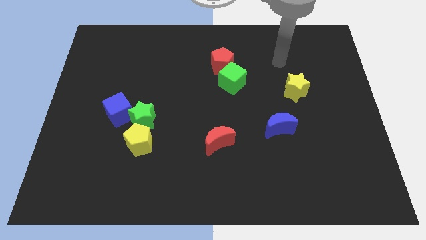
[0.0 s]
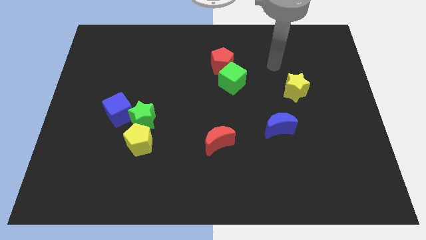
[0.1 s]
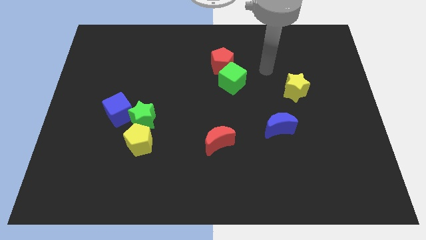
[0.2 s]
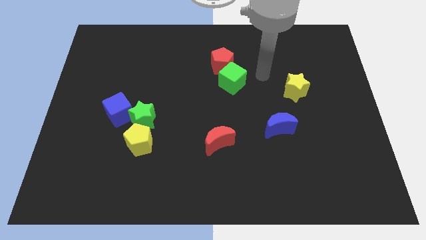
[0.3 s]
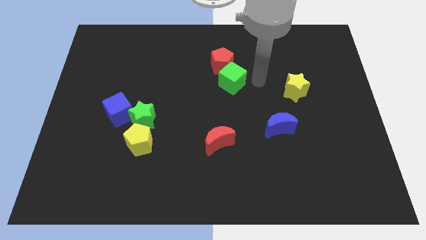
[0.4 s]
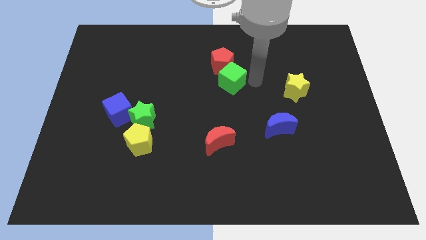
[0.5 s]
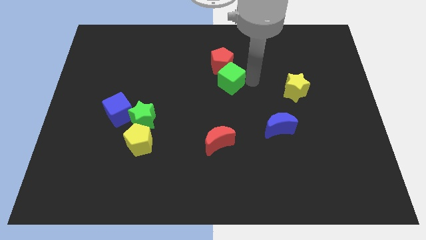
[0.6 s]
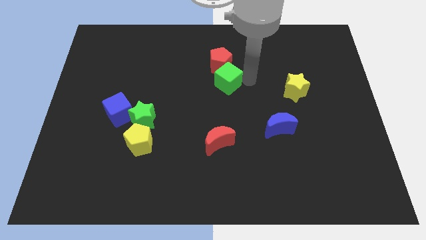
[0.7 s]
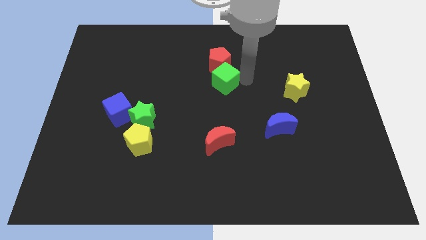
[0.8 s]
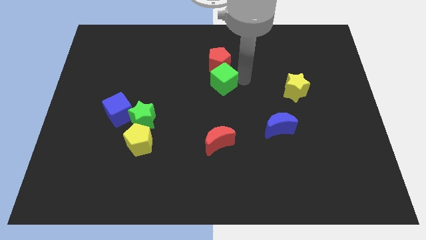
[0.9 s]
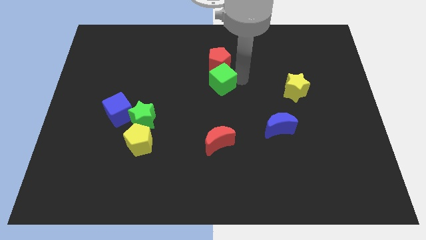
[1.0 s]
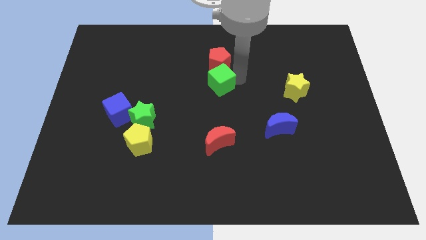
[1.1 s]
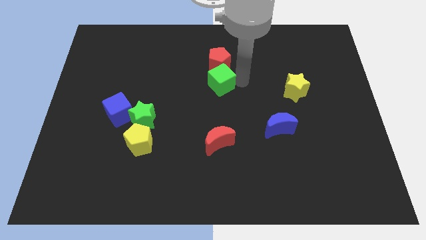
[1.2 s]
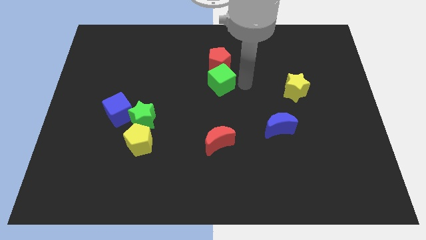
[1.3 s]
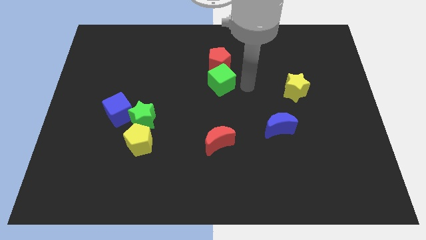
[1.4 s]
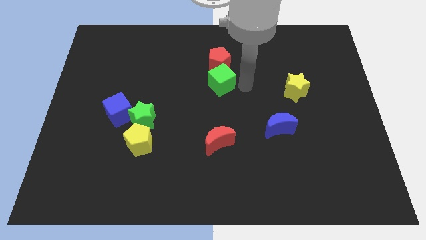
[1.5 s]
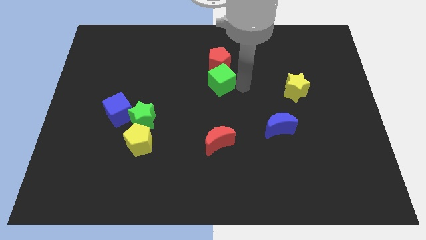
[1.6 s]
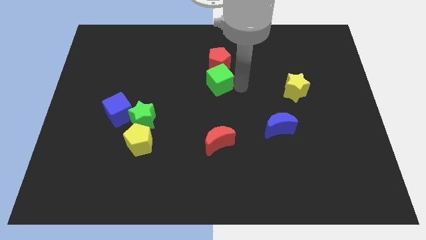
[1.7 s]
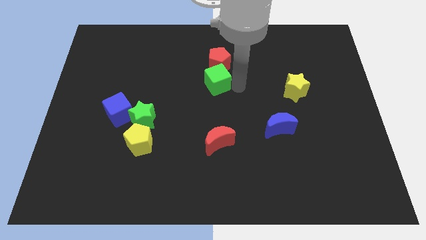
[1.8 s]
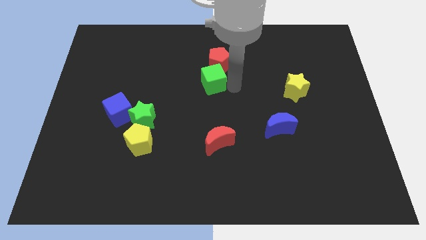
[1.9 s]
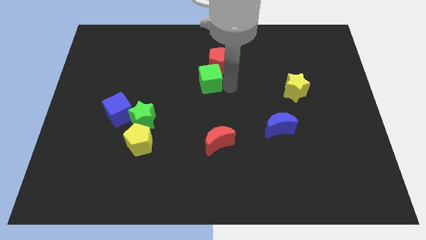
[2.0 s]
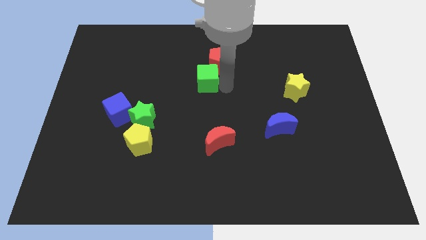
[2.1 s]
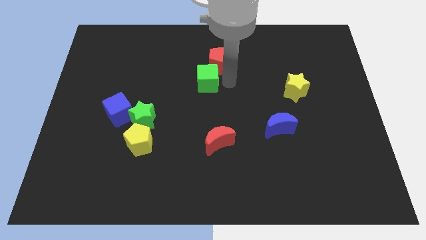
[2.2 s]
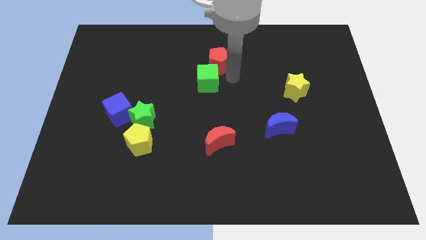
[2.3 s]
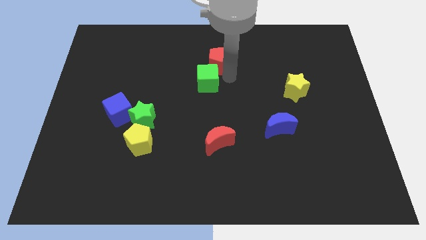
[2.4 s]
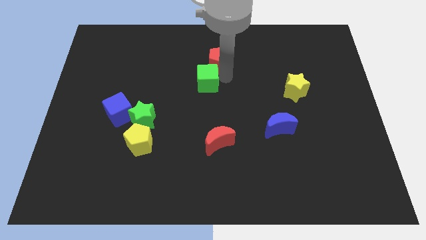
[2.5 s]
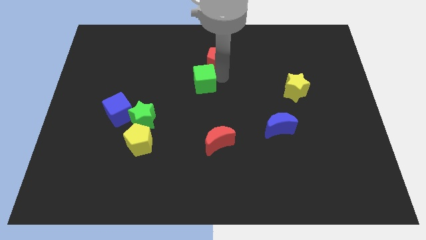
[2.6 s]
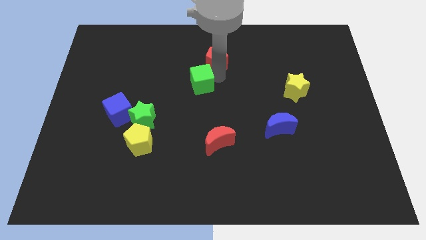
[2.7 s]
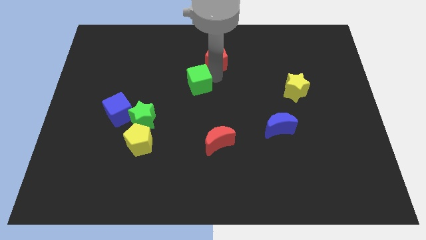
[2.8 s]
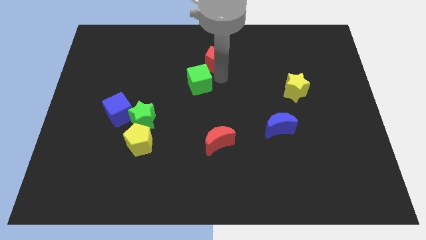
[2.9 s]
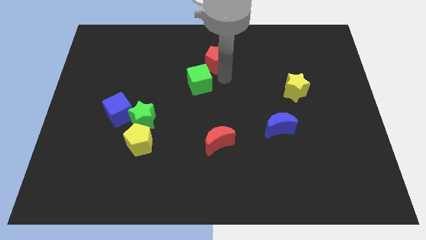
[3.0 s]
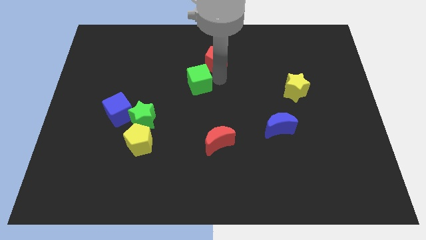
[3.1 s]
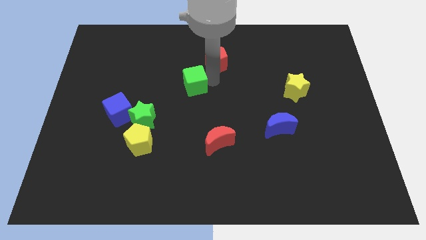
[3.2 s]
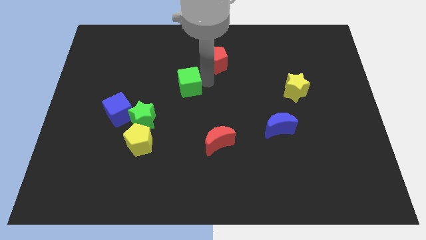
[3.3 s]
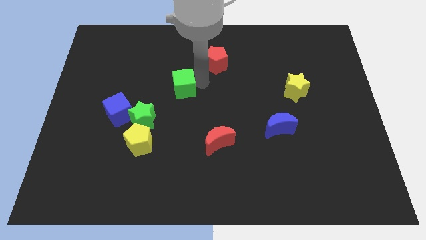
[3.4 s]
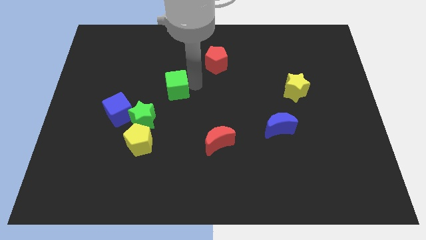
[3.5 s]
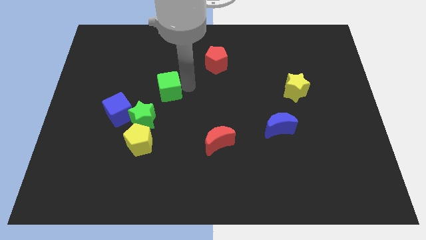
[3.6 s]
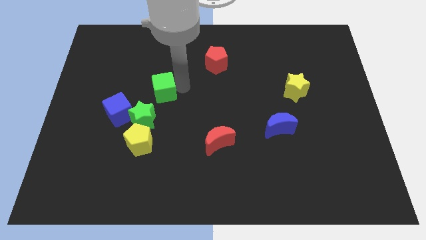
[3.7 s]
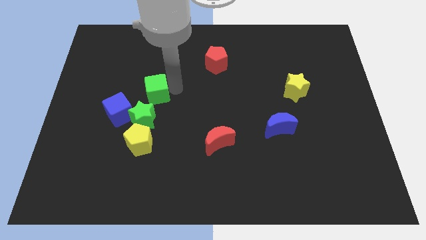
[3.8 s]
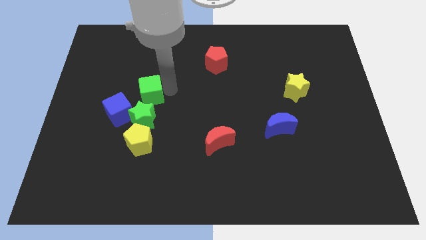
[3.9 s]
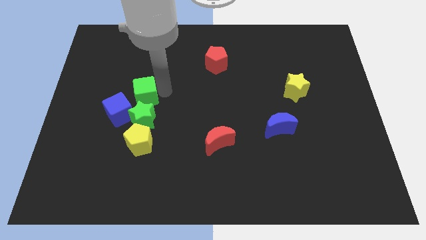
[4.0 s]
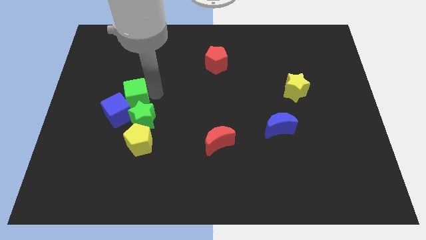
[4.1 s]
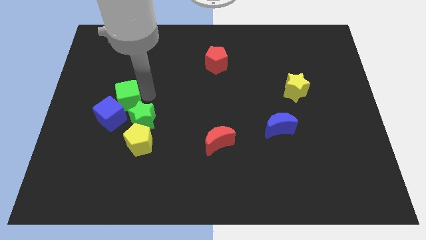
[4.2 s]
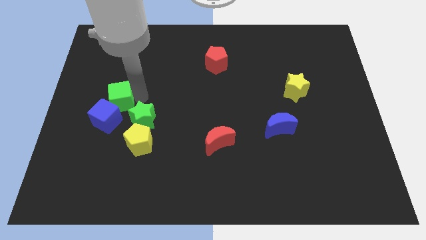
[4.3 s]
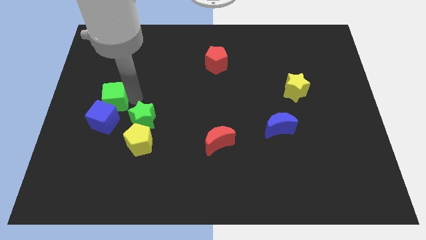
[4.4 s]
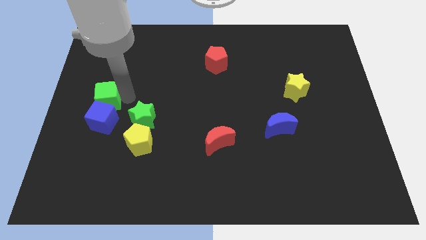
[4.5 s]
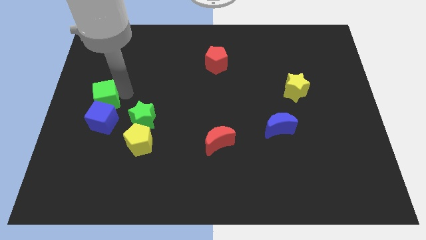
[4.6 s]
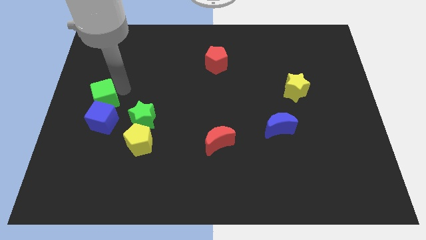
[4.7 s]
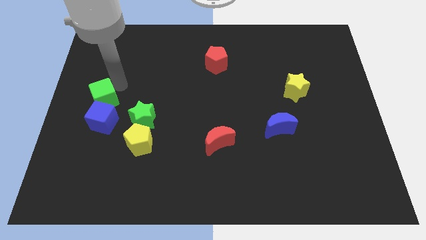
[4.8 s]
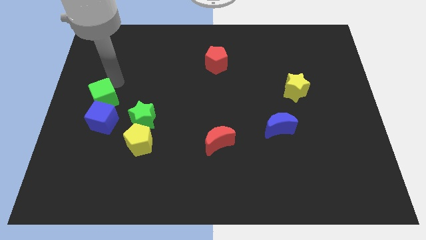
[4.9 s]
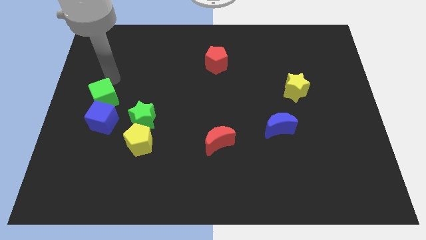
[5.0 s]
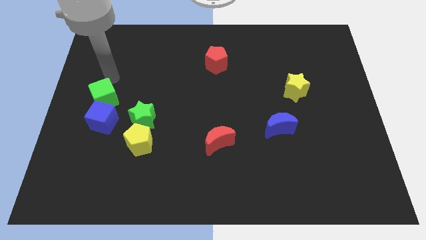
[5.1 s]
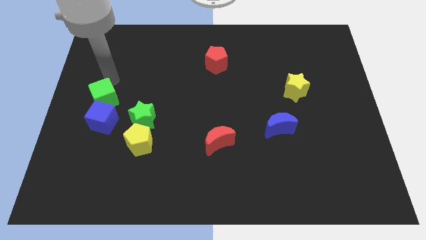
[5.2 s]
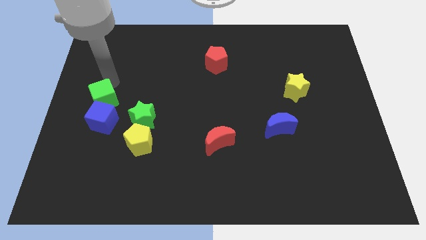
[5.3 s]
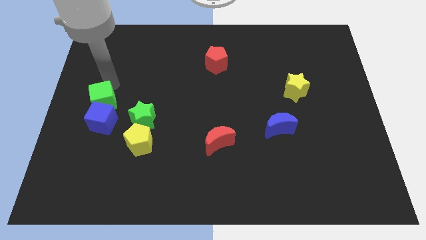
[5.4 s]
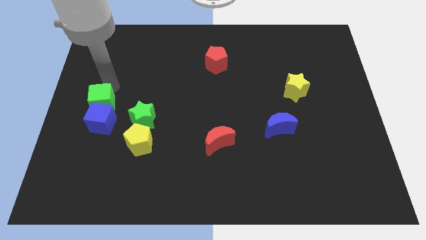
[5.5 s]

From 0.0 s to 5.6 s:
put the green cube to the left side of the green star

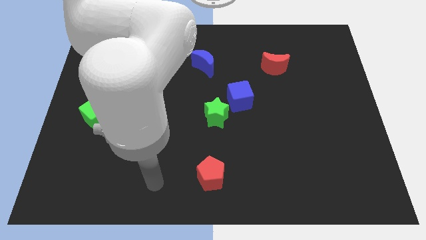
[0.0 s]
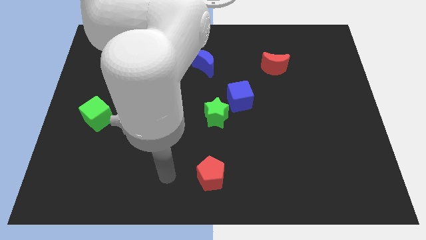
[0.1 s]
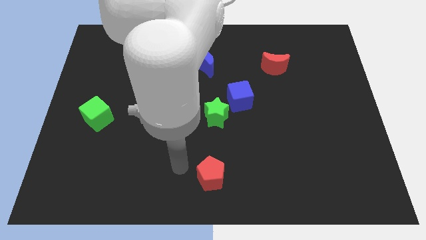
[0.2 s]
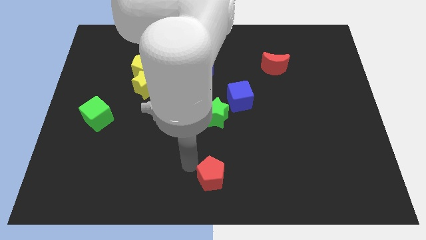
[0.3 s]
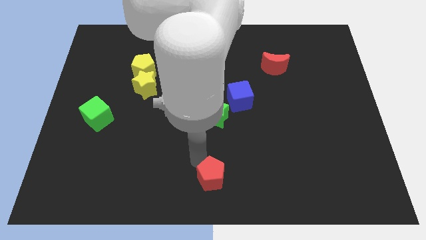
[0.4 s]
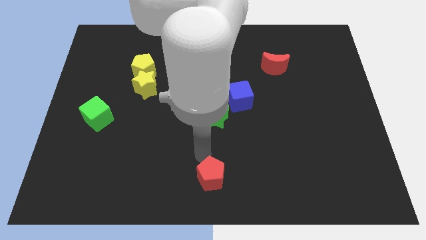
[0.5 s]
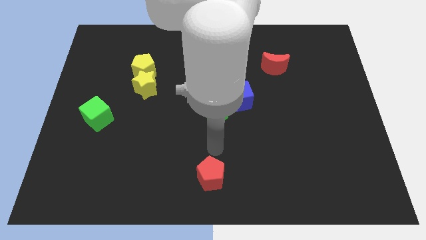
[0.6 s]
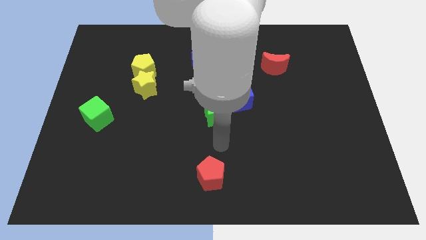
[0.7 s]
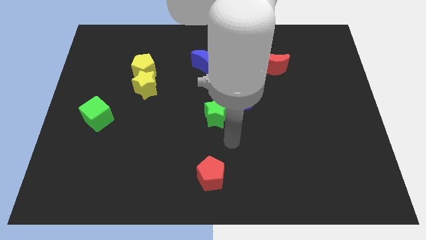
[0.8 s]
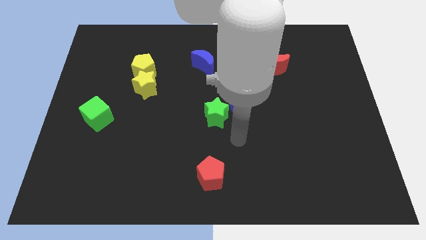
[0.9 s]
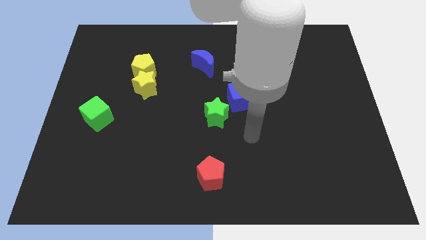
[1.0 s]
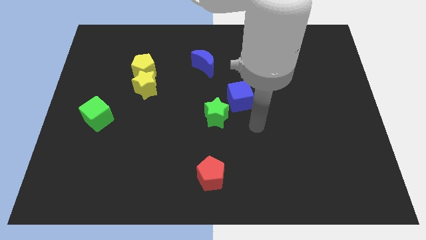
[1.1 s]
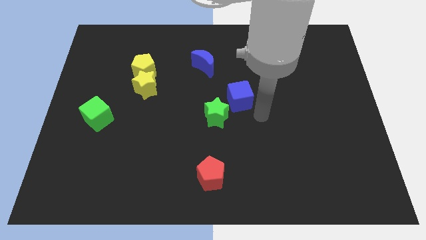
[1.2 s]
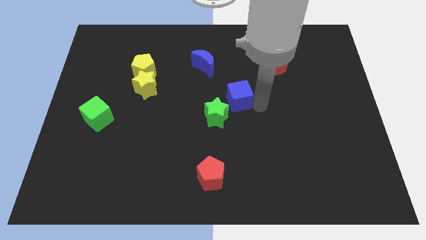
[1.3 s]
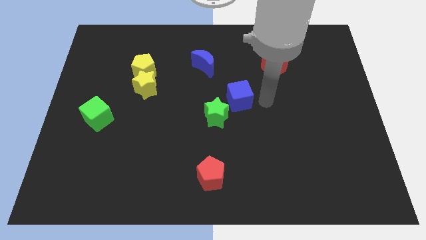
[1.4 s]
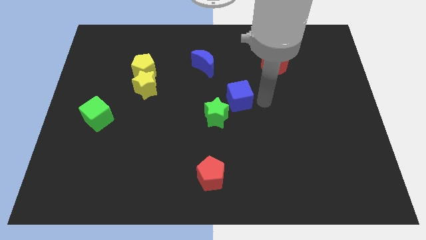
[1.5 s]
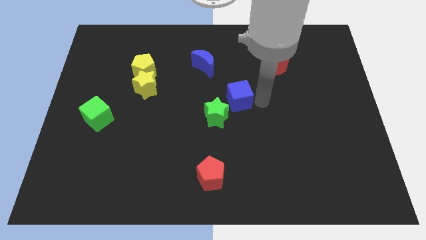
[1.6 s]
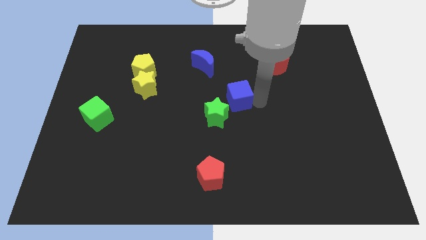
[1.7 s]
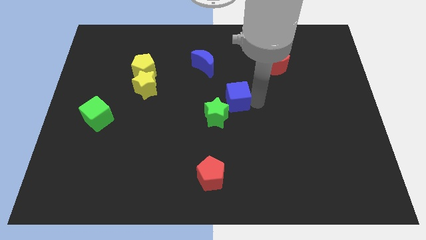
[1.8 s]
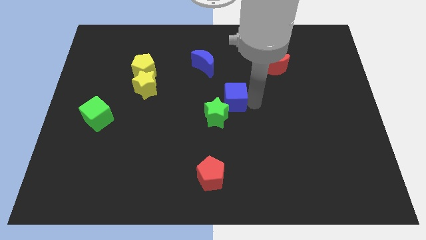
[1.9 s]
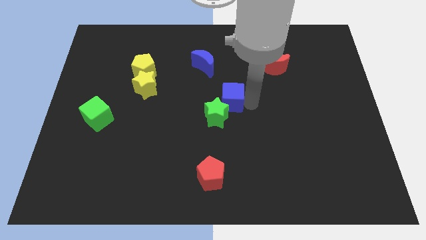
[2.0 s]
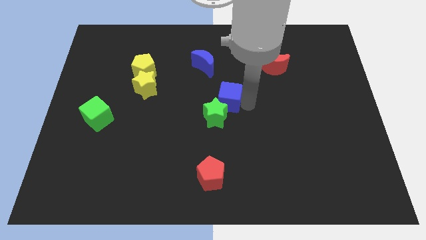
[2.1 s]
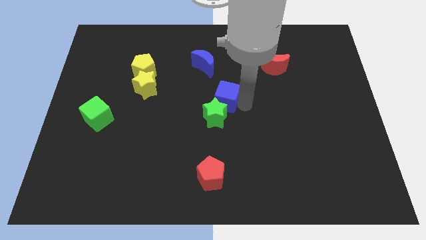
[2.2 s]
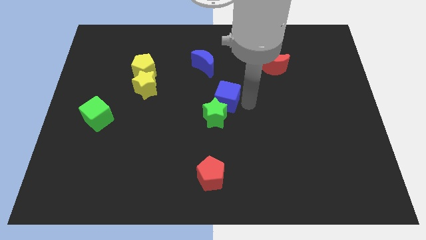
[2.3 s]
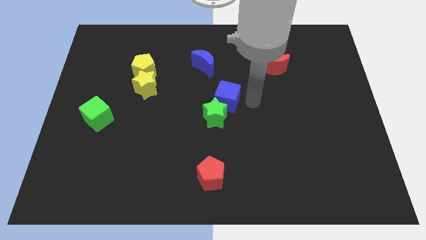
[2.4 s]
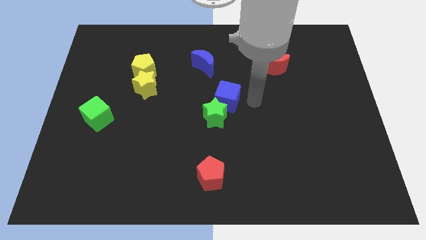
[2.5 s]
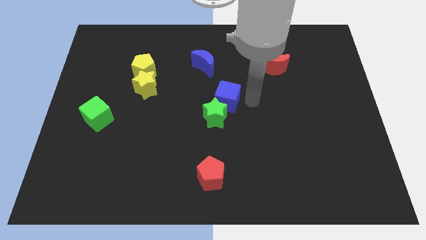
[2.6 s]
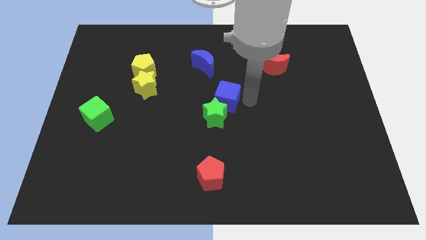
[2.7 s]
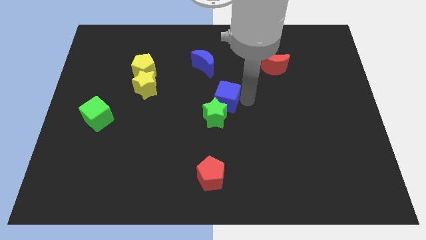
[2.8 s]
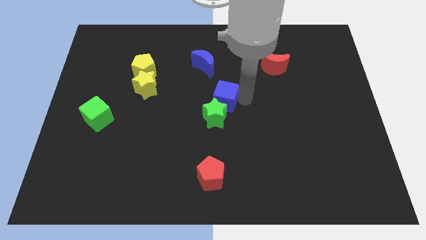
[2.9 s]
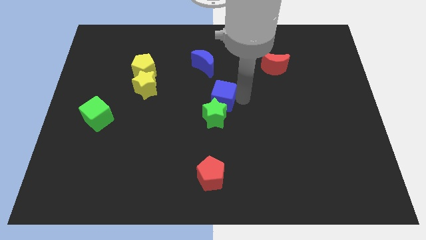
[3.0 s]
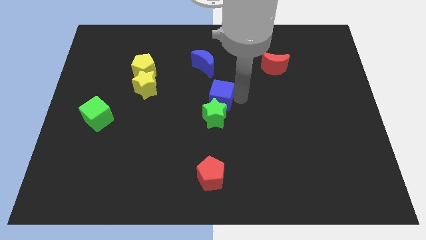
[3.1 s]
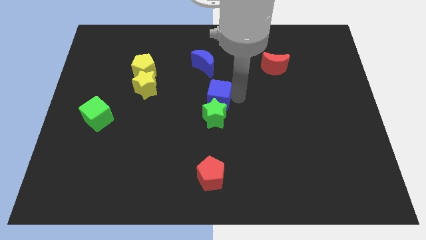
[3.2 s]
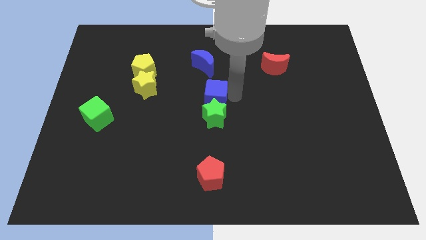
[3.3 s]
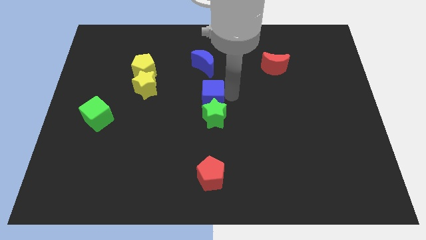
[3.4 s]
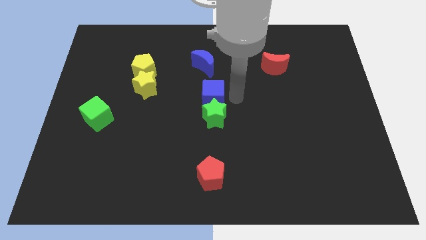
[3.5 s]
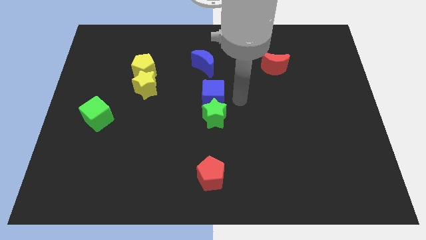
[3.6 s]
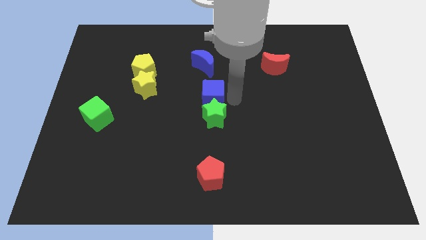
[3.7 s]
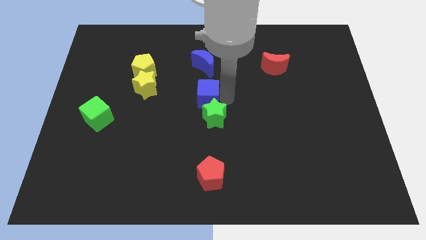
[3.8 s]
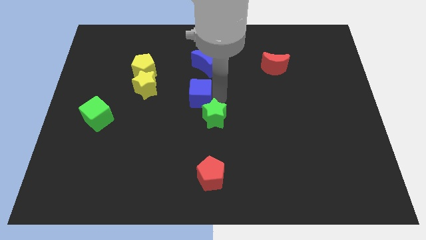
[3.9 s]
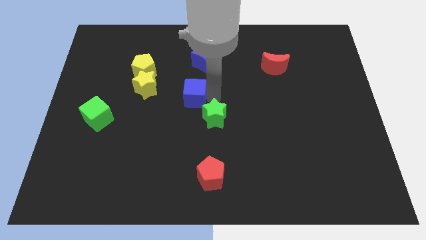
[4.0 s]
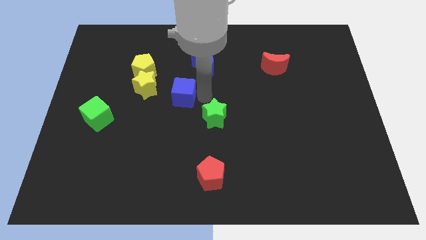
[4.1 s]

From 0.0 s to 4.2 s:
slide the blue cube to the bottom right of the yellow pentagon
